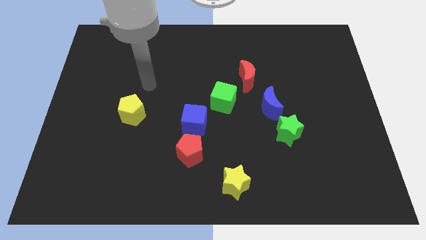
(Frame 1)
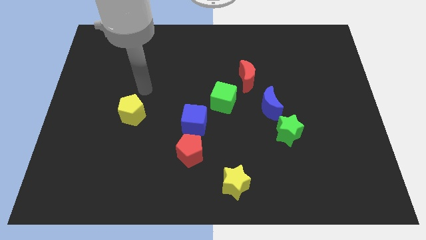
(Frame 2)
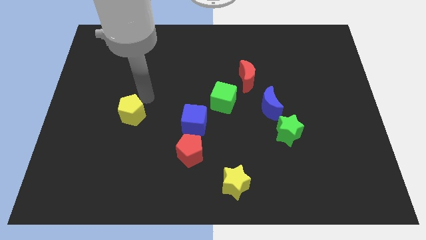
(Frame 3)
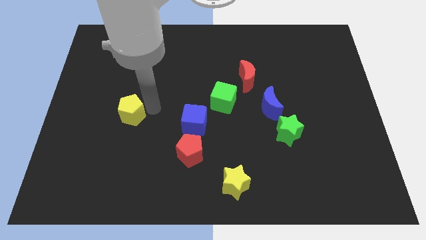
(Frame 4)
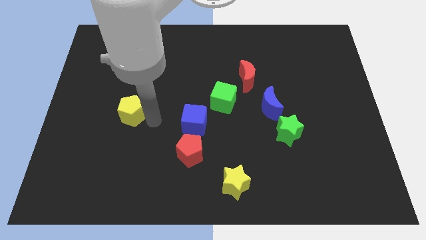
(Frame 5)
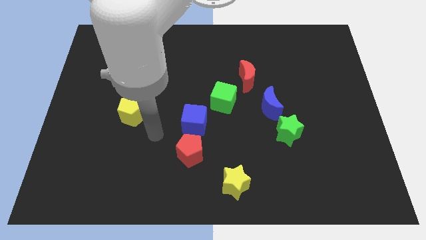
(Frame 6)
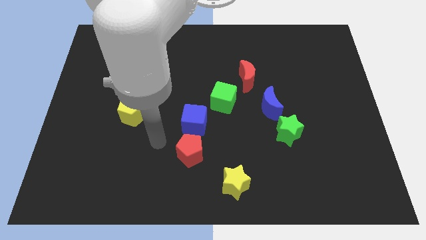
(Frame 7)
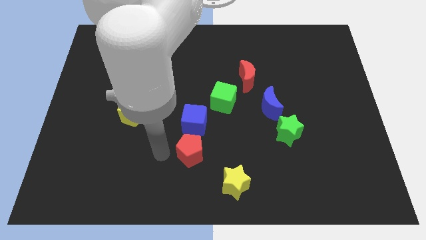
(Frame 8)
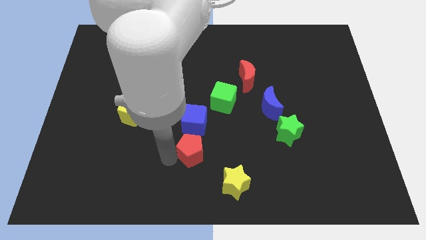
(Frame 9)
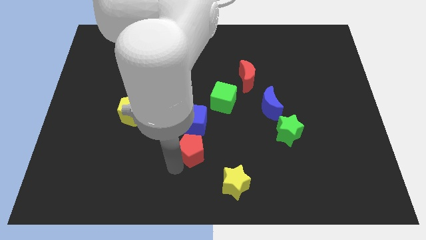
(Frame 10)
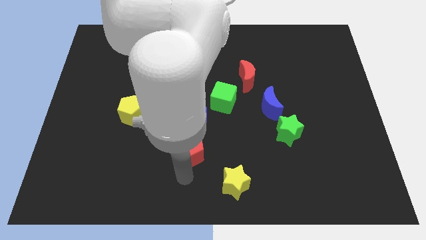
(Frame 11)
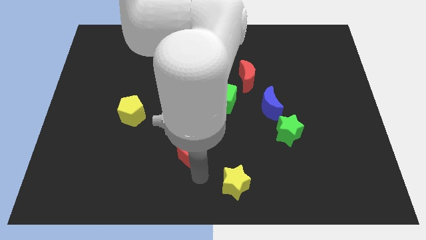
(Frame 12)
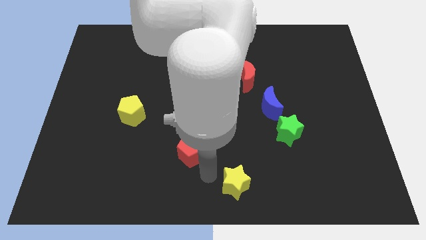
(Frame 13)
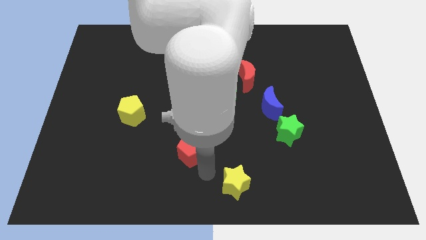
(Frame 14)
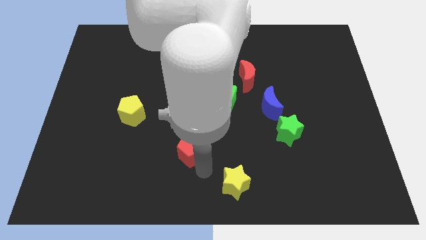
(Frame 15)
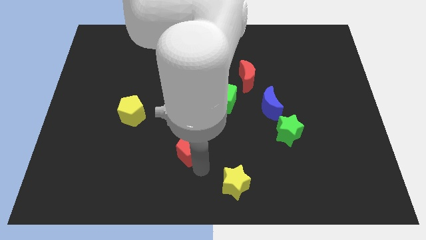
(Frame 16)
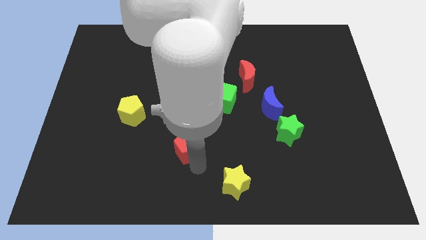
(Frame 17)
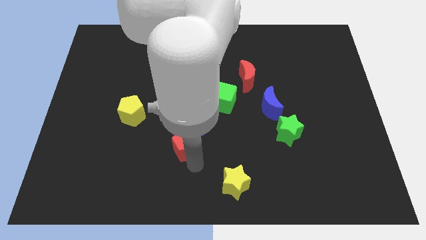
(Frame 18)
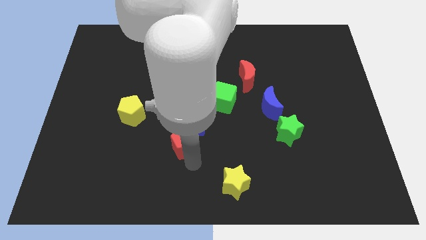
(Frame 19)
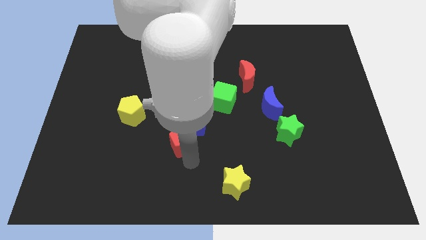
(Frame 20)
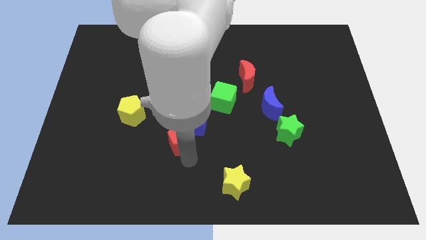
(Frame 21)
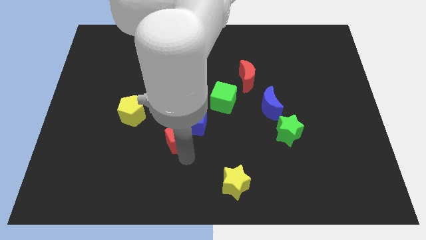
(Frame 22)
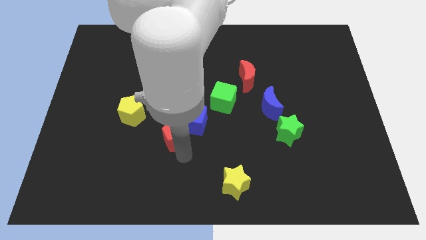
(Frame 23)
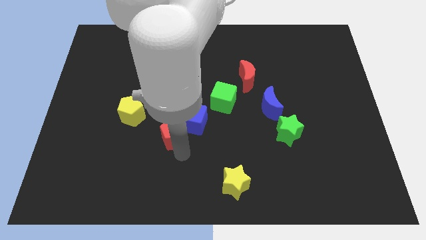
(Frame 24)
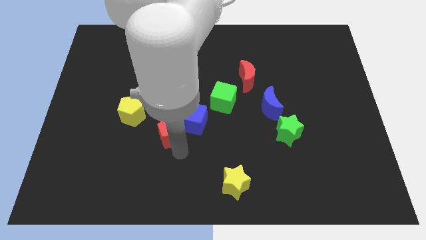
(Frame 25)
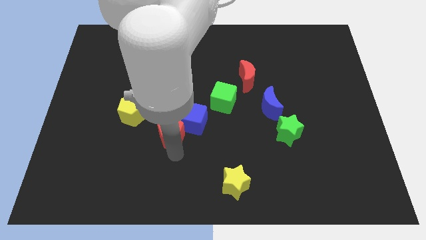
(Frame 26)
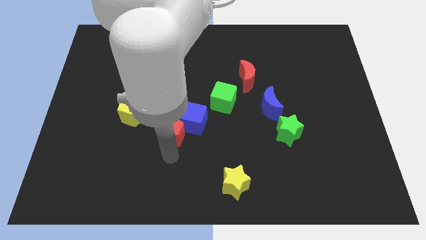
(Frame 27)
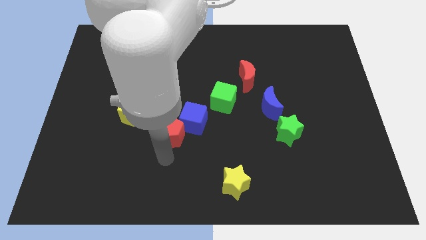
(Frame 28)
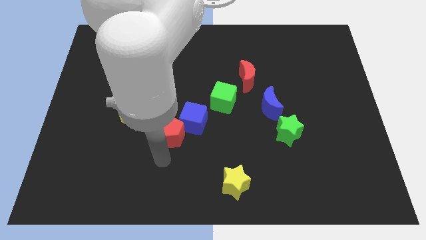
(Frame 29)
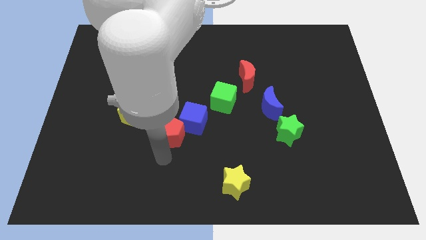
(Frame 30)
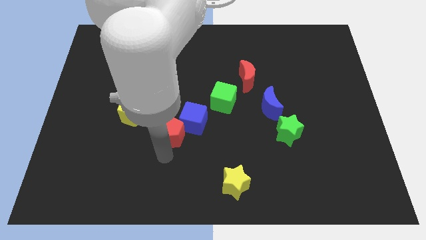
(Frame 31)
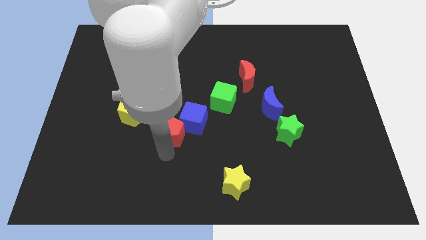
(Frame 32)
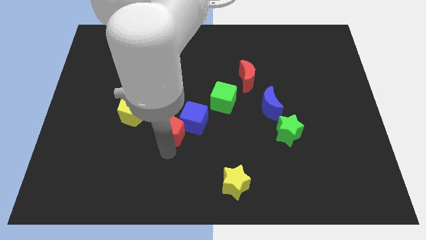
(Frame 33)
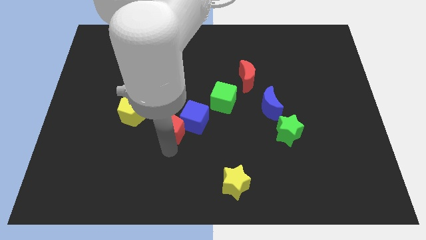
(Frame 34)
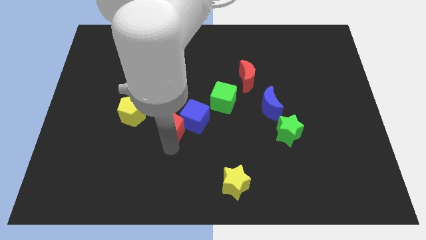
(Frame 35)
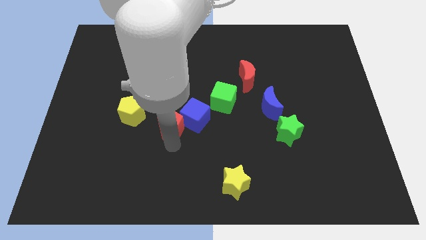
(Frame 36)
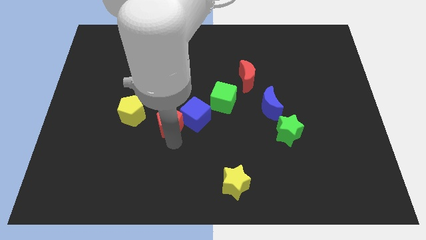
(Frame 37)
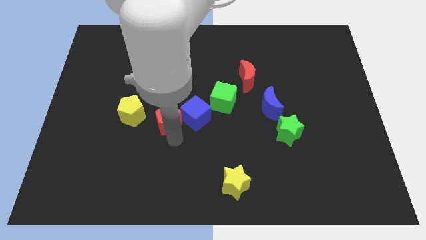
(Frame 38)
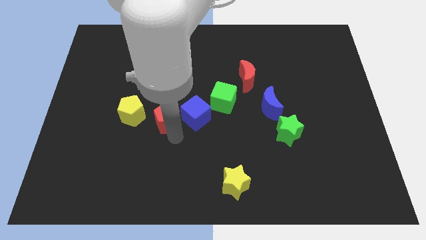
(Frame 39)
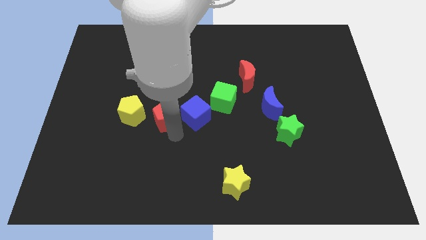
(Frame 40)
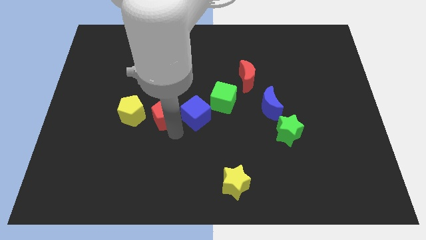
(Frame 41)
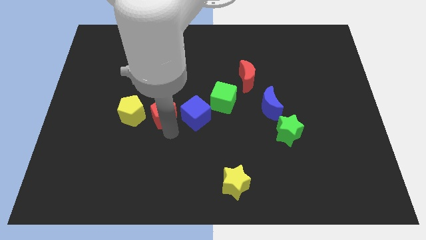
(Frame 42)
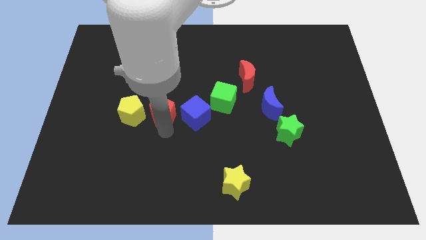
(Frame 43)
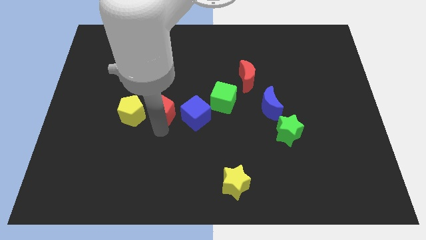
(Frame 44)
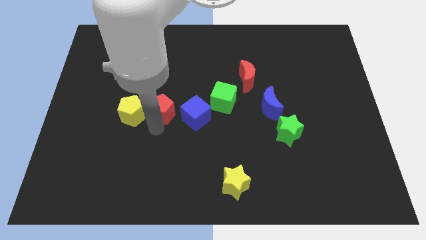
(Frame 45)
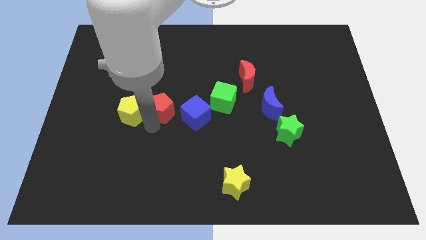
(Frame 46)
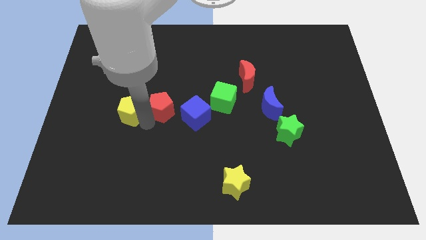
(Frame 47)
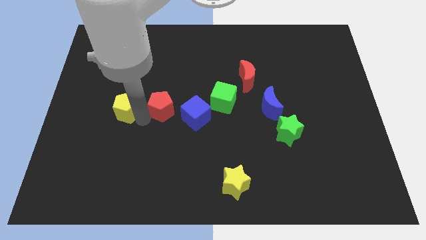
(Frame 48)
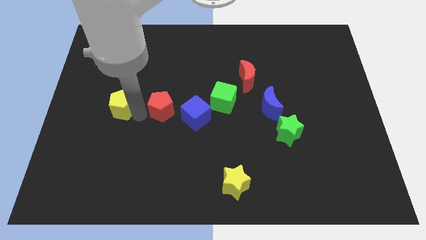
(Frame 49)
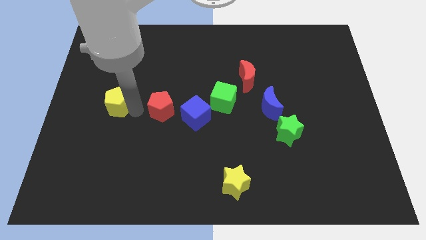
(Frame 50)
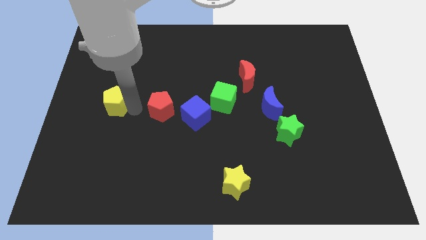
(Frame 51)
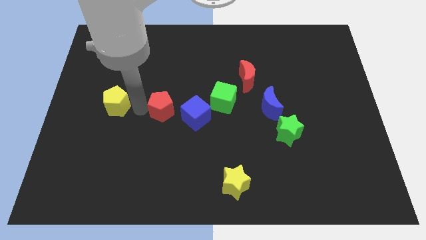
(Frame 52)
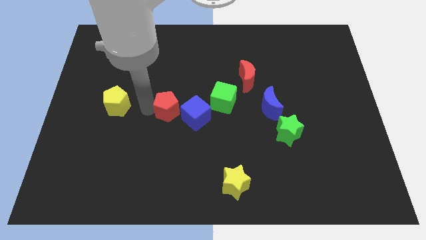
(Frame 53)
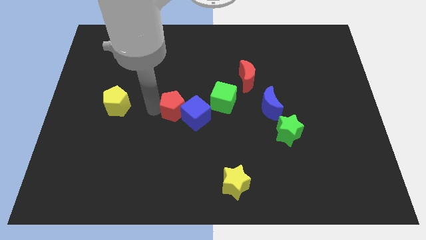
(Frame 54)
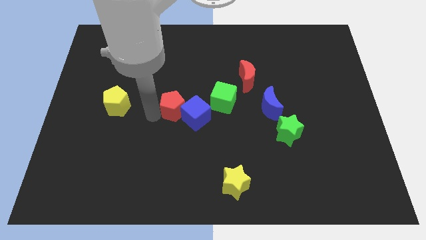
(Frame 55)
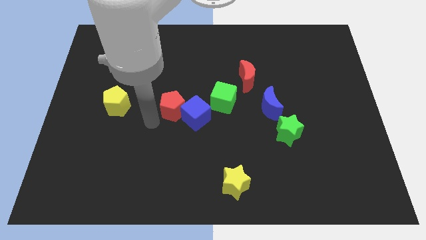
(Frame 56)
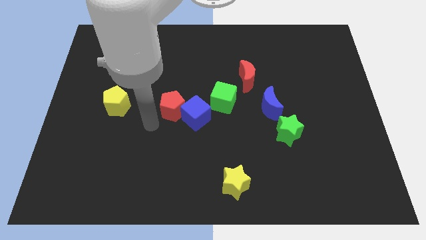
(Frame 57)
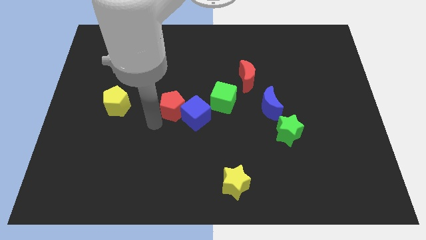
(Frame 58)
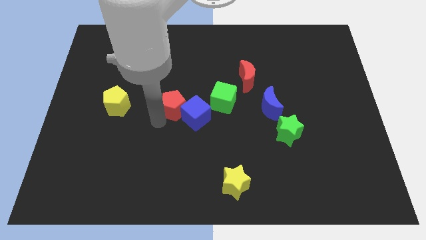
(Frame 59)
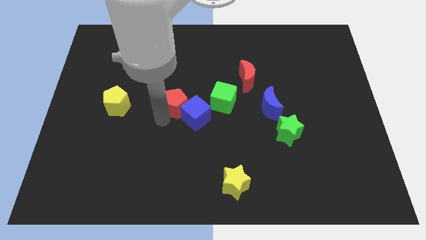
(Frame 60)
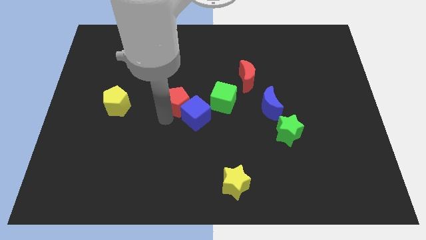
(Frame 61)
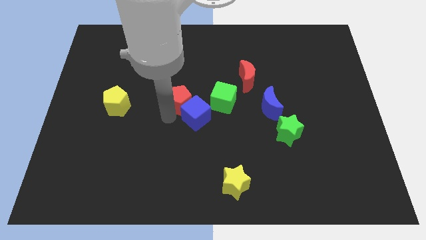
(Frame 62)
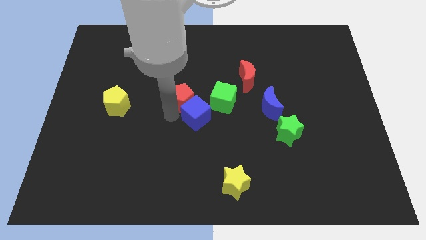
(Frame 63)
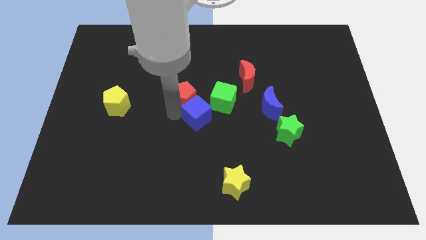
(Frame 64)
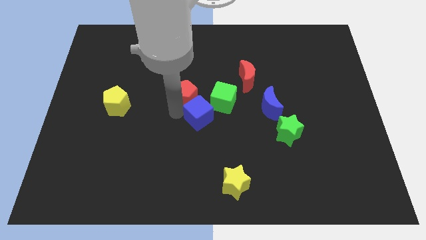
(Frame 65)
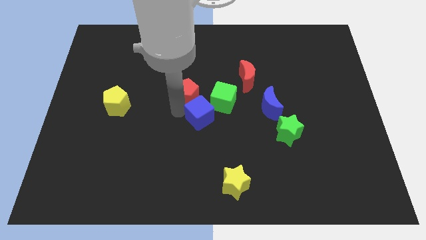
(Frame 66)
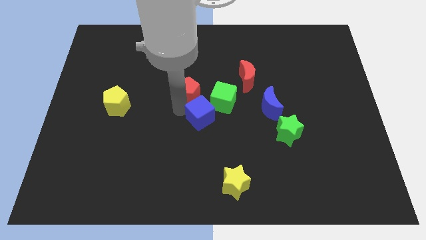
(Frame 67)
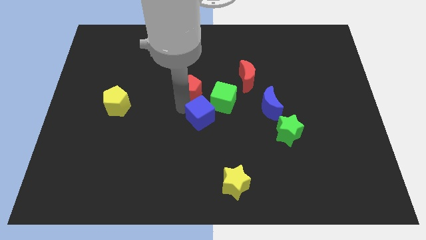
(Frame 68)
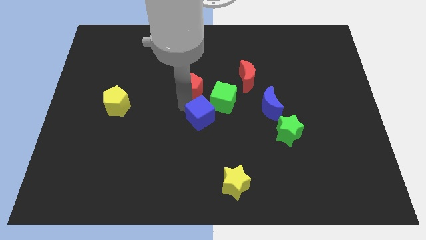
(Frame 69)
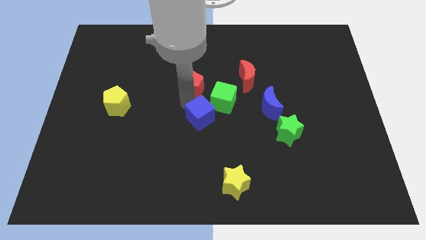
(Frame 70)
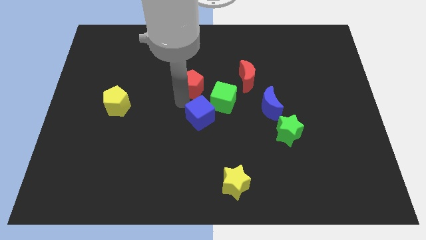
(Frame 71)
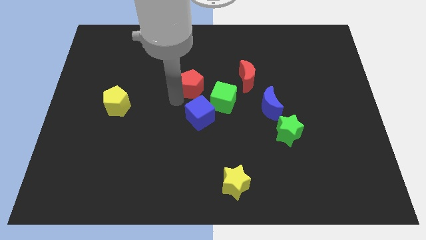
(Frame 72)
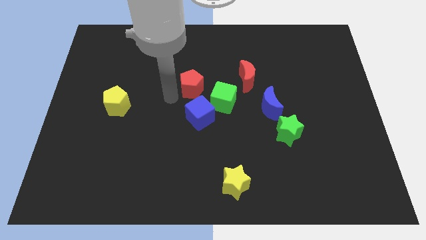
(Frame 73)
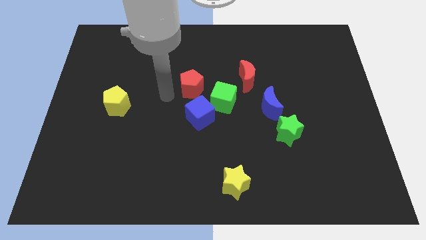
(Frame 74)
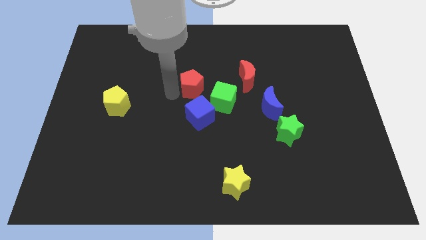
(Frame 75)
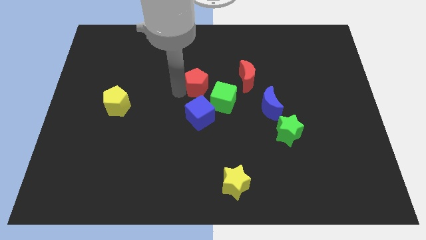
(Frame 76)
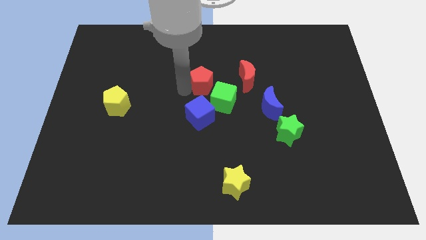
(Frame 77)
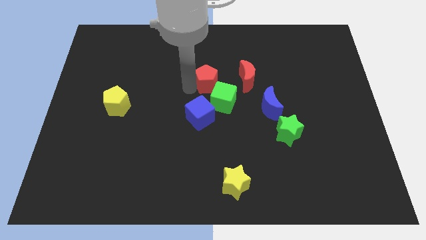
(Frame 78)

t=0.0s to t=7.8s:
slide the red pentagon above the green cube

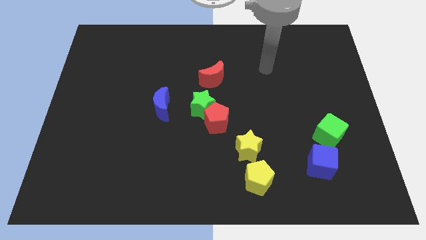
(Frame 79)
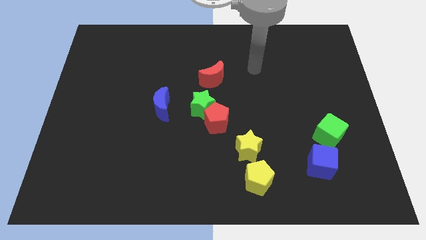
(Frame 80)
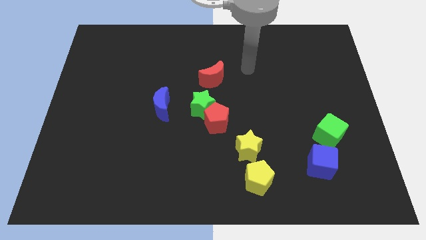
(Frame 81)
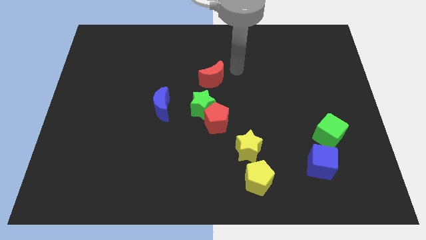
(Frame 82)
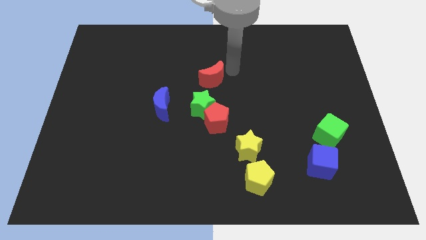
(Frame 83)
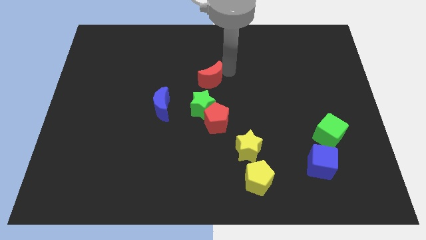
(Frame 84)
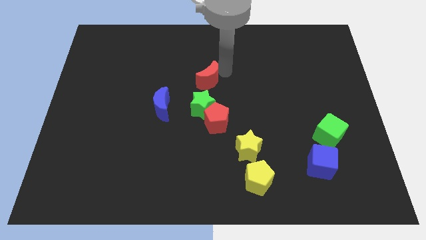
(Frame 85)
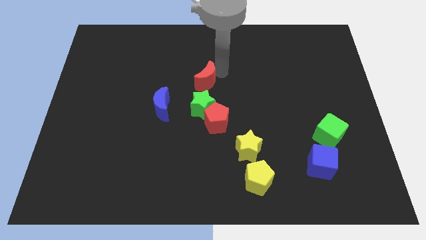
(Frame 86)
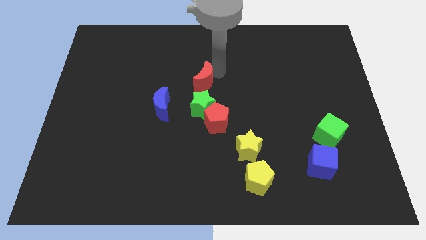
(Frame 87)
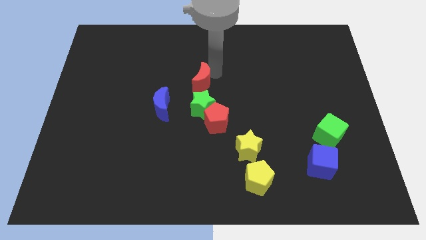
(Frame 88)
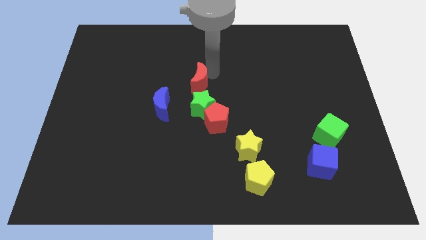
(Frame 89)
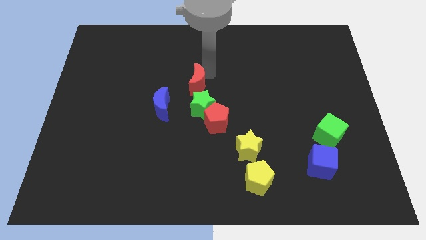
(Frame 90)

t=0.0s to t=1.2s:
put the red moon diagonally up and to the left of the green star
